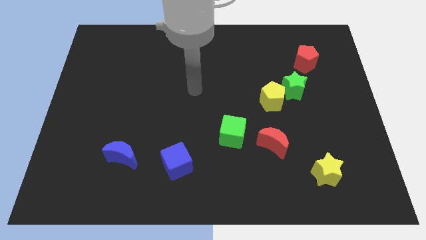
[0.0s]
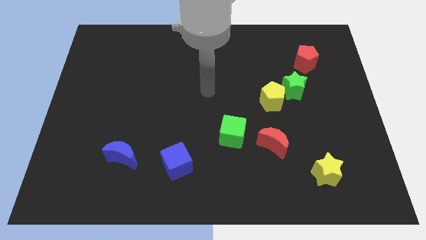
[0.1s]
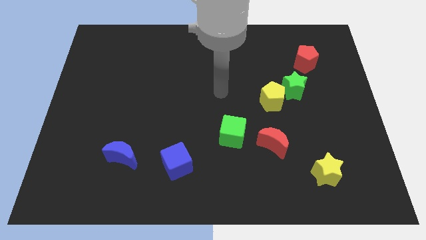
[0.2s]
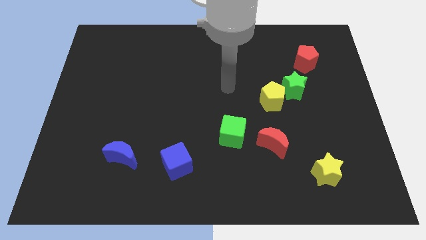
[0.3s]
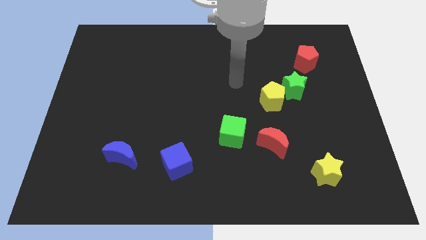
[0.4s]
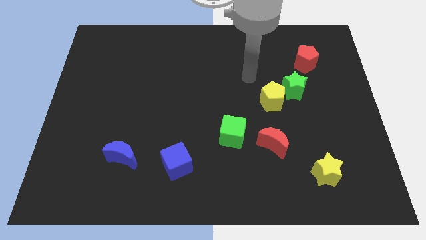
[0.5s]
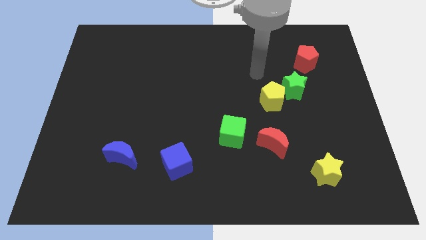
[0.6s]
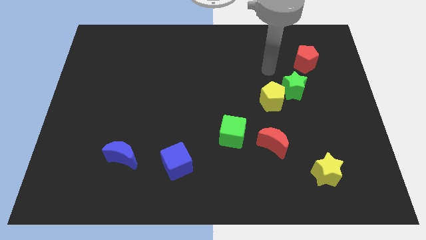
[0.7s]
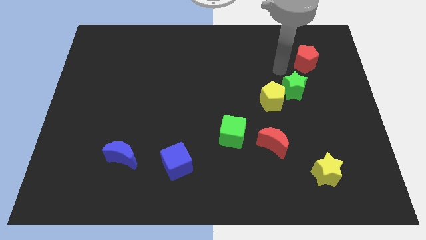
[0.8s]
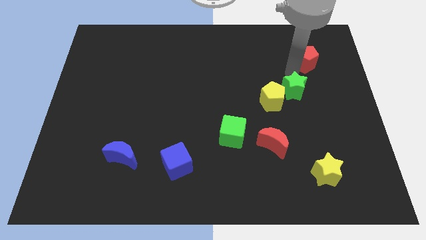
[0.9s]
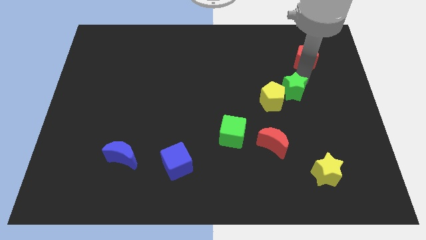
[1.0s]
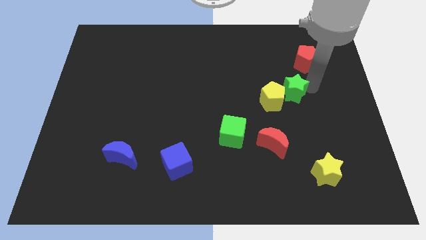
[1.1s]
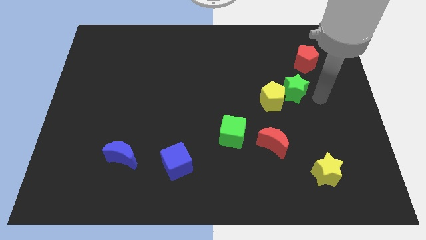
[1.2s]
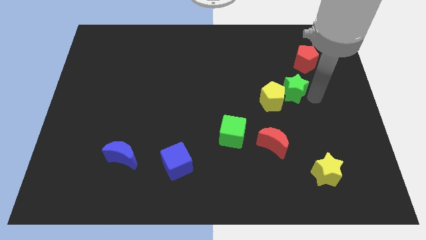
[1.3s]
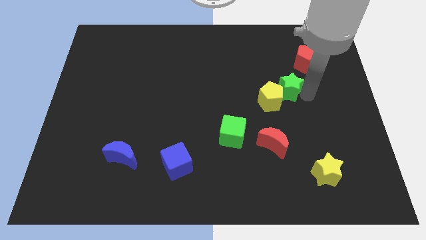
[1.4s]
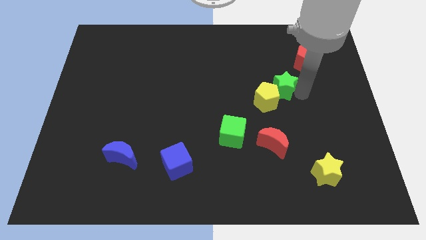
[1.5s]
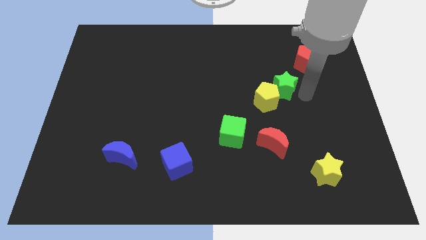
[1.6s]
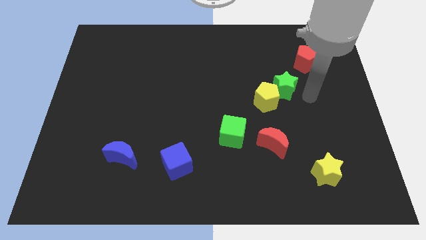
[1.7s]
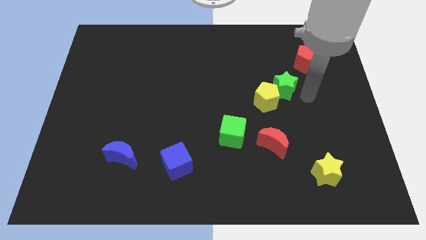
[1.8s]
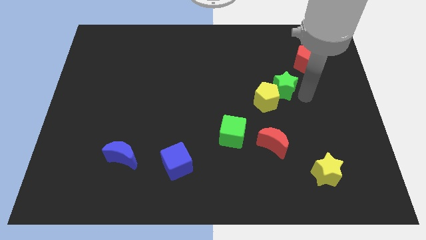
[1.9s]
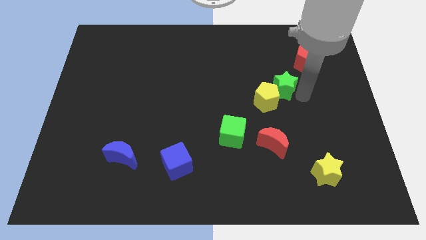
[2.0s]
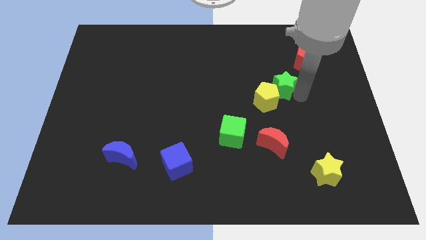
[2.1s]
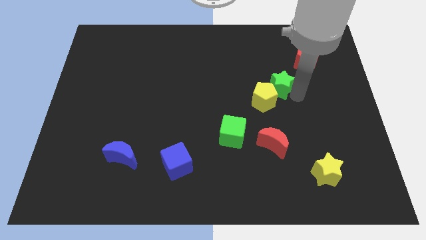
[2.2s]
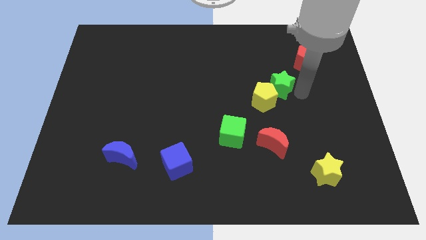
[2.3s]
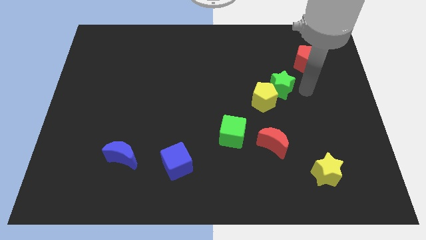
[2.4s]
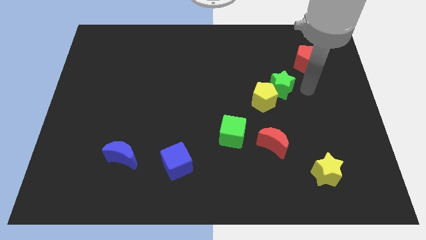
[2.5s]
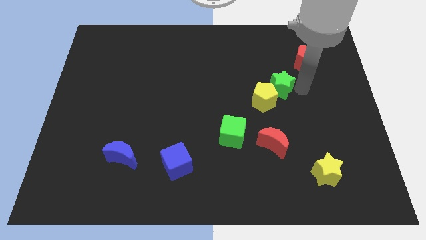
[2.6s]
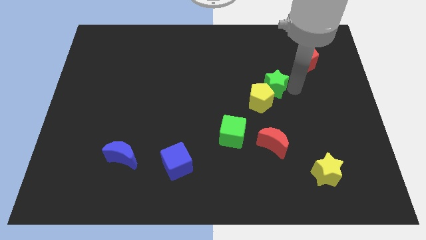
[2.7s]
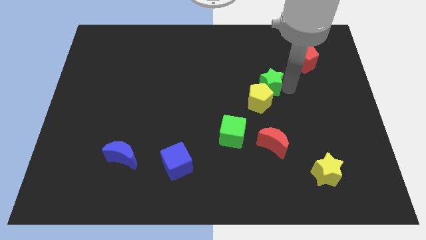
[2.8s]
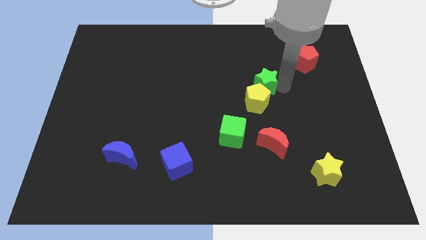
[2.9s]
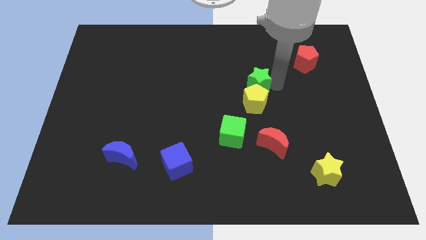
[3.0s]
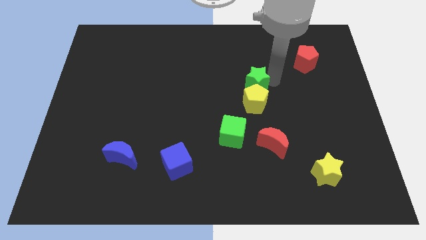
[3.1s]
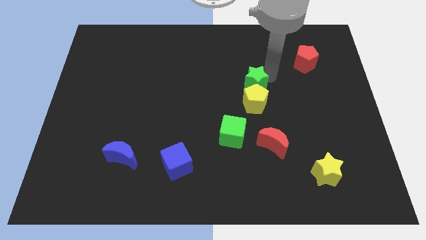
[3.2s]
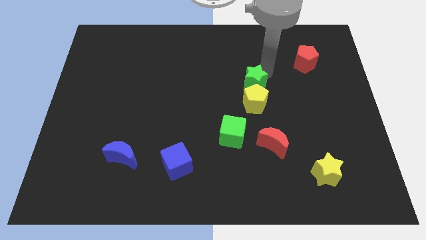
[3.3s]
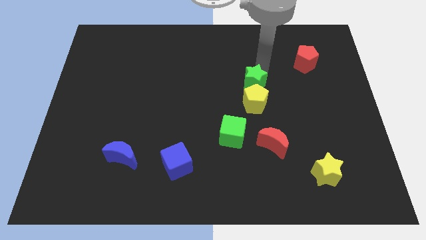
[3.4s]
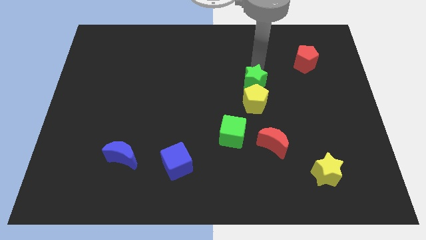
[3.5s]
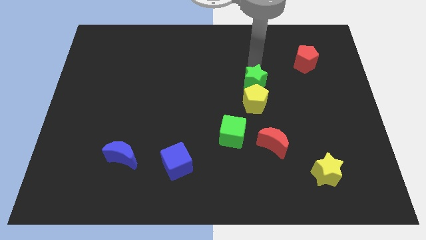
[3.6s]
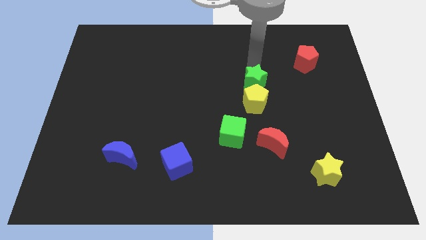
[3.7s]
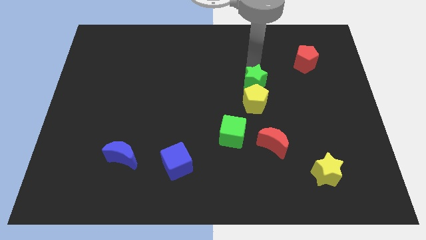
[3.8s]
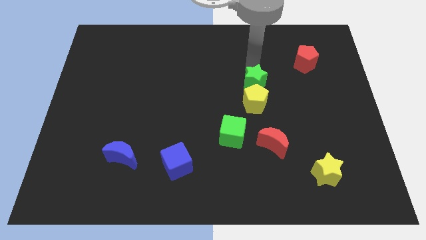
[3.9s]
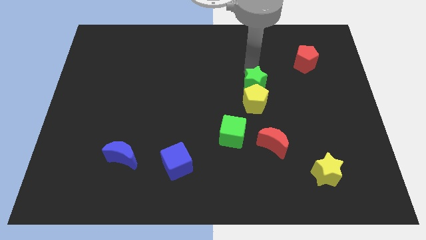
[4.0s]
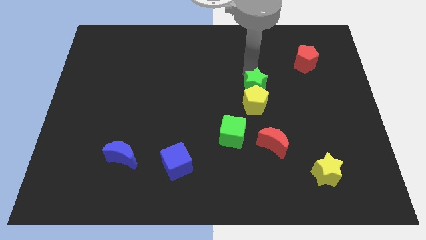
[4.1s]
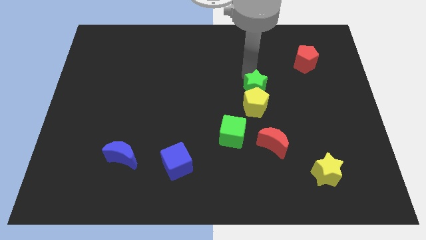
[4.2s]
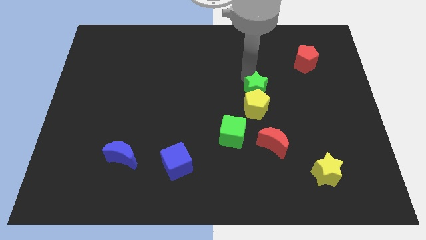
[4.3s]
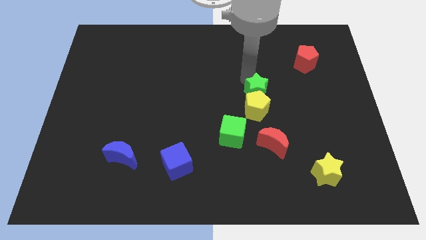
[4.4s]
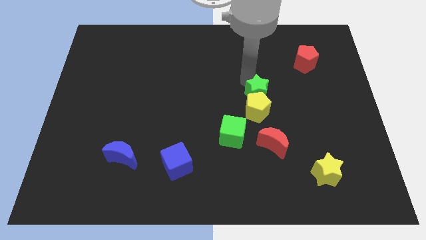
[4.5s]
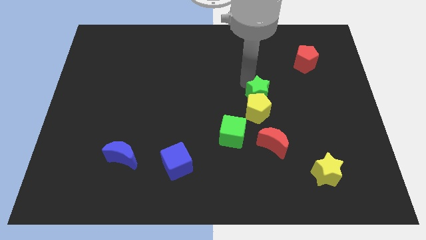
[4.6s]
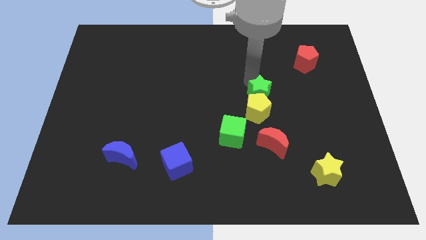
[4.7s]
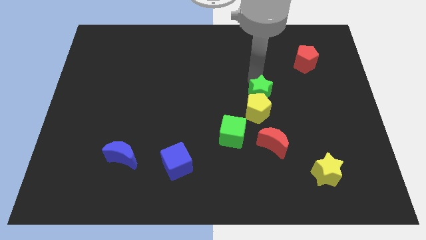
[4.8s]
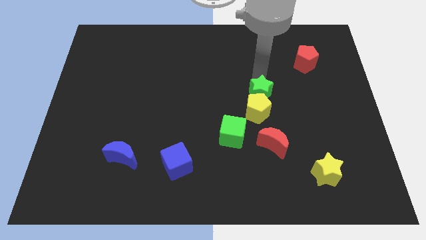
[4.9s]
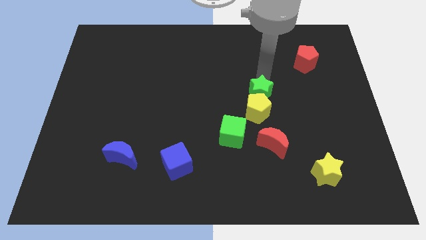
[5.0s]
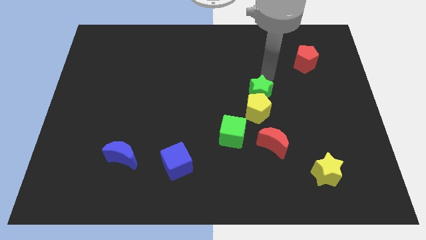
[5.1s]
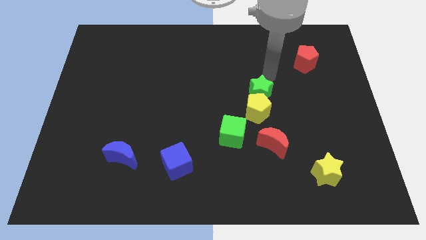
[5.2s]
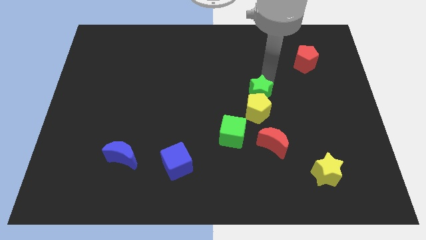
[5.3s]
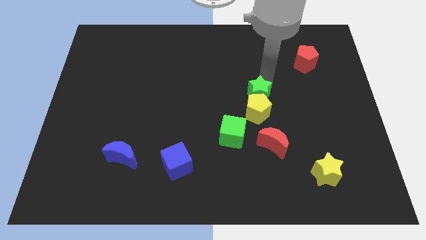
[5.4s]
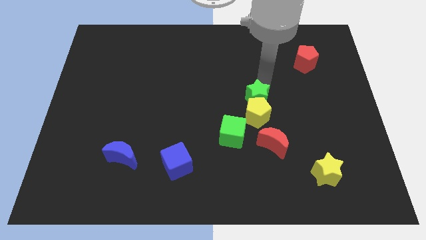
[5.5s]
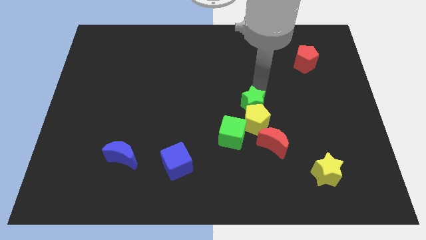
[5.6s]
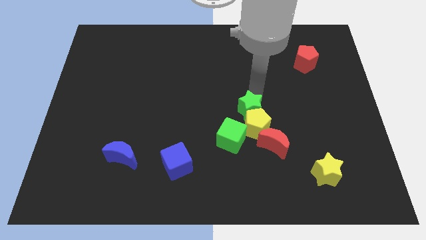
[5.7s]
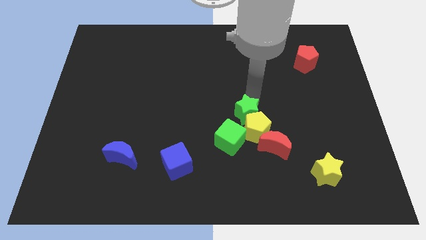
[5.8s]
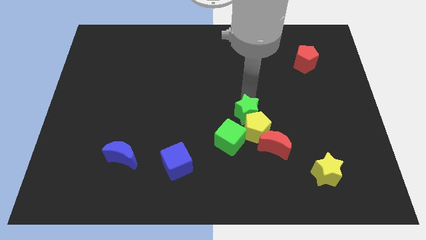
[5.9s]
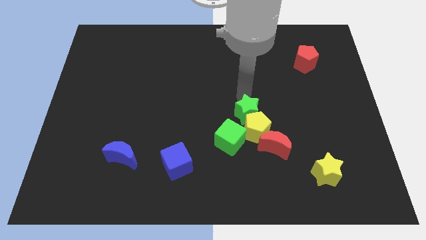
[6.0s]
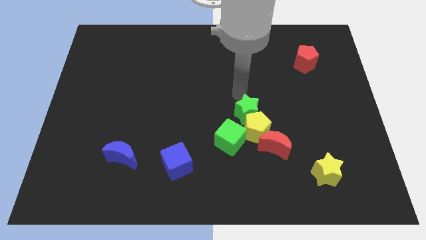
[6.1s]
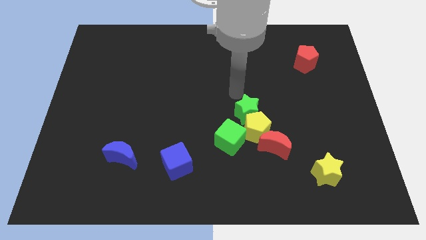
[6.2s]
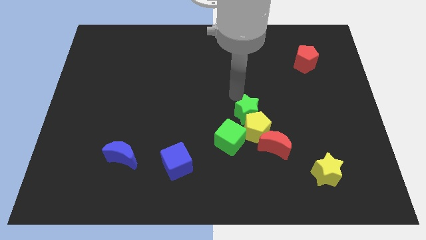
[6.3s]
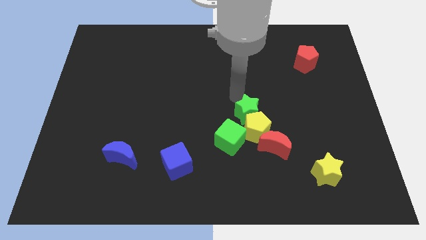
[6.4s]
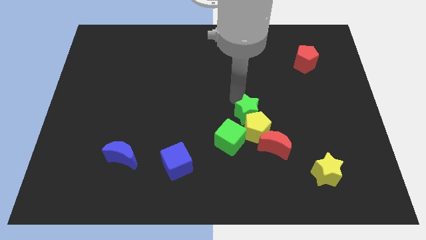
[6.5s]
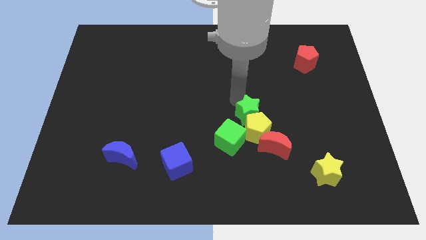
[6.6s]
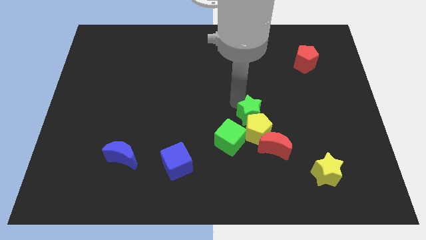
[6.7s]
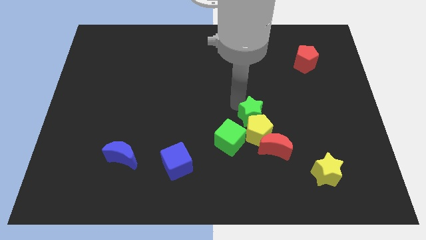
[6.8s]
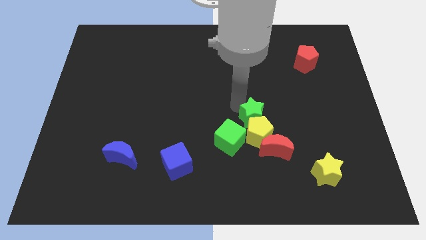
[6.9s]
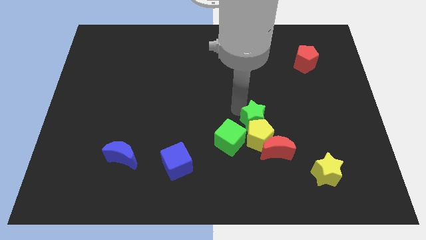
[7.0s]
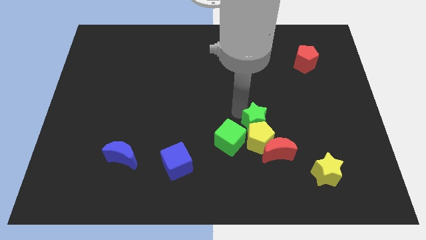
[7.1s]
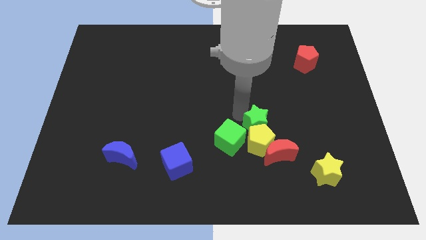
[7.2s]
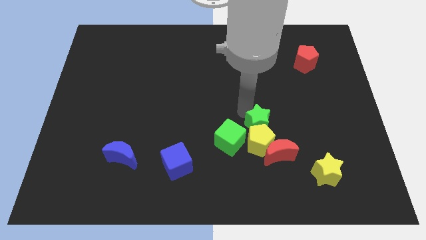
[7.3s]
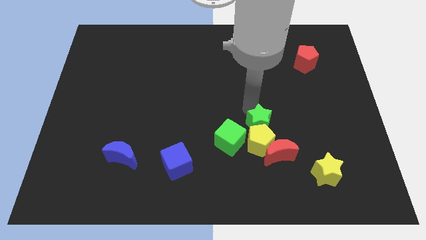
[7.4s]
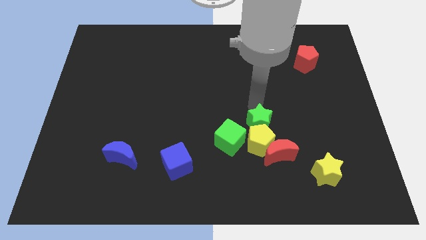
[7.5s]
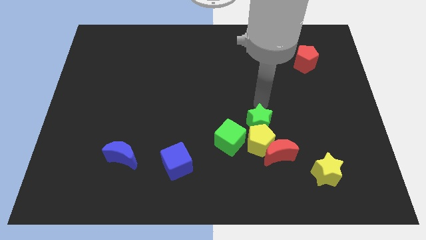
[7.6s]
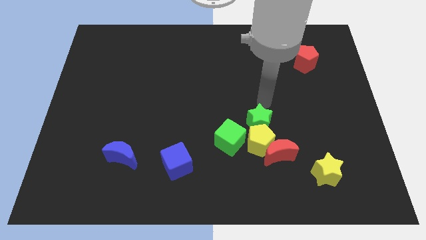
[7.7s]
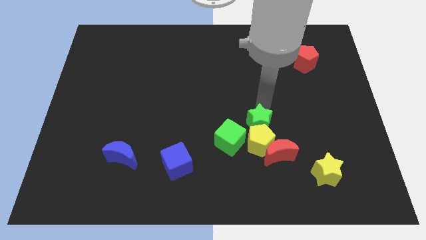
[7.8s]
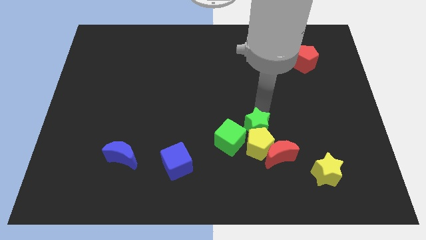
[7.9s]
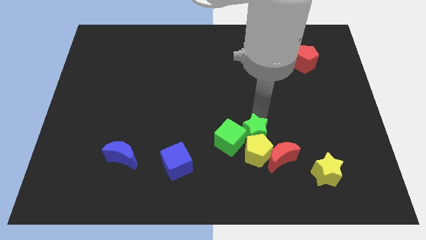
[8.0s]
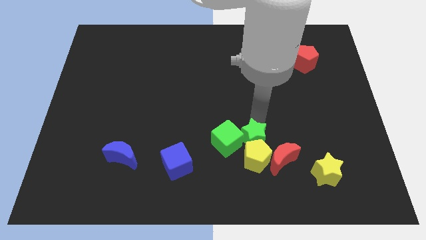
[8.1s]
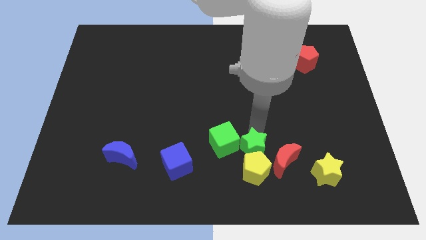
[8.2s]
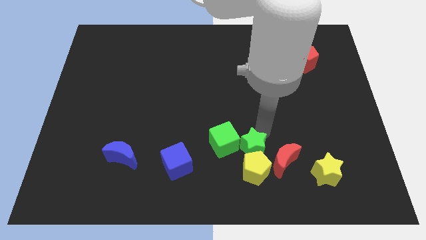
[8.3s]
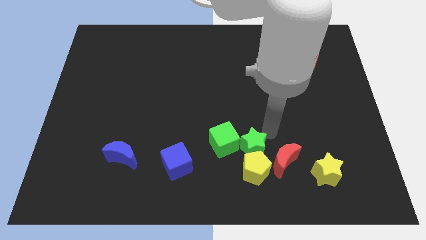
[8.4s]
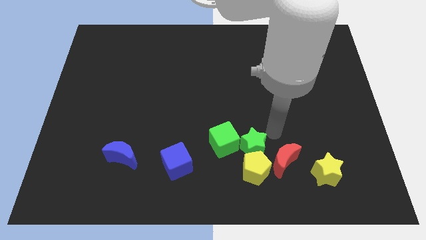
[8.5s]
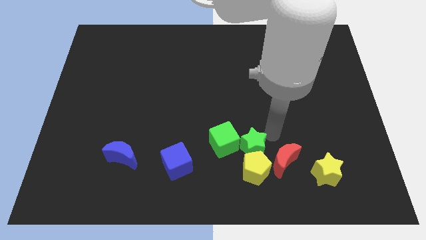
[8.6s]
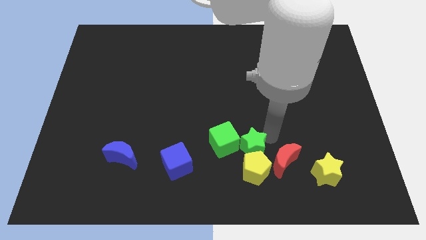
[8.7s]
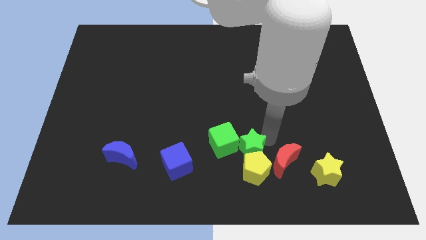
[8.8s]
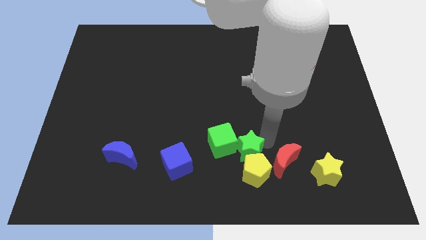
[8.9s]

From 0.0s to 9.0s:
put the green star to the right side of the blue cube
